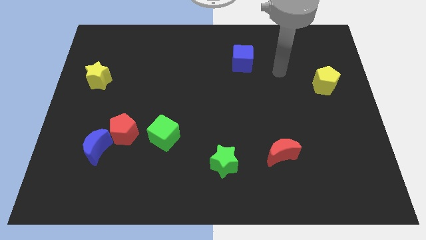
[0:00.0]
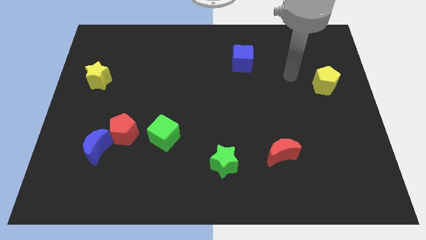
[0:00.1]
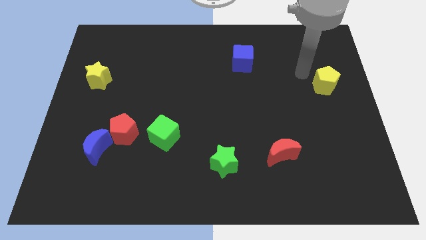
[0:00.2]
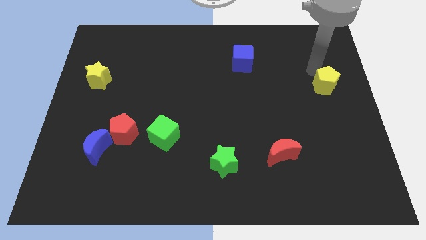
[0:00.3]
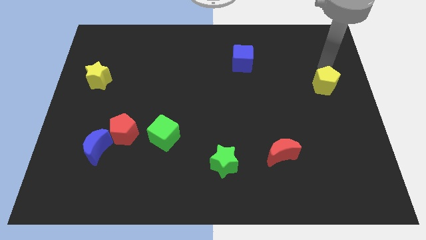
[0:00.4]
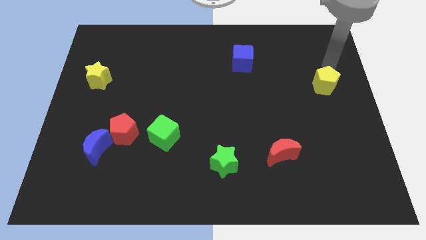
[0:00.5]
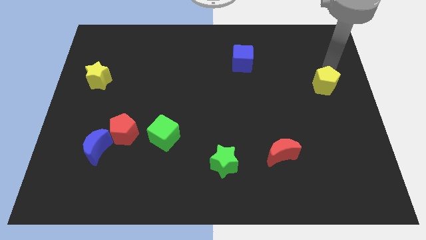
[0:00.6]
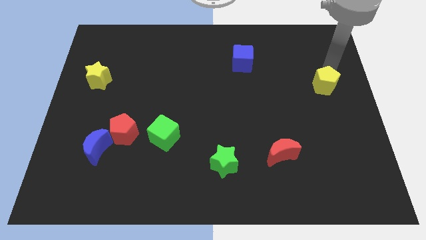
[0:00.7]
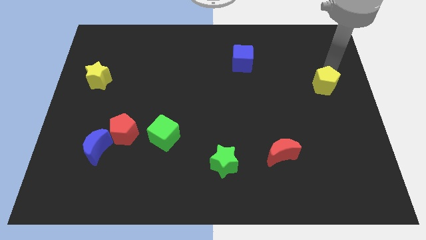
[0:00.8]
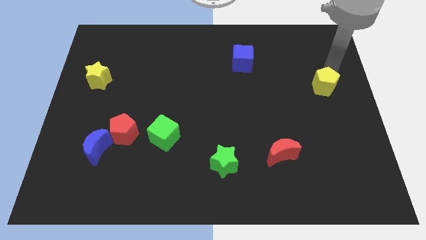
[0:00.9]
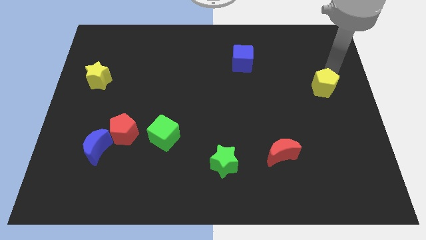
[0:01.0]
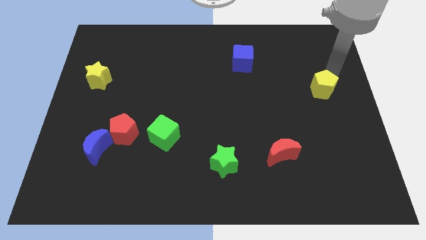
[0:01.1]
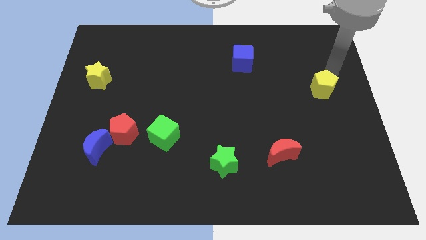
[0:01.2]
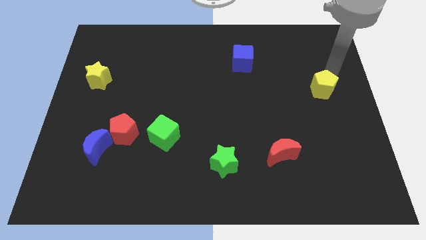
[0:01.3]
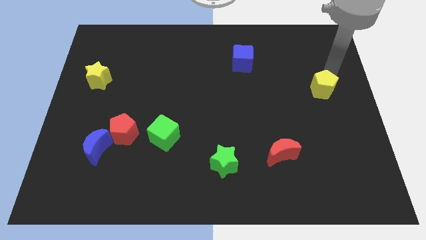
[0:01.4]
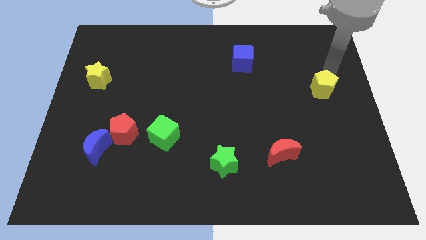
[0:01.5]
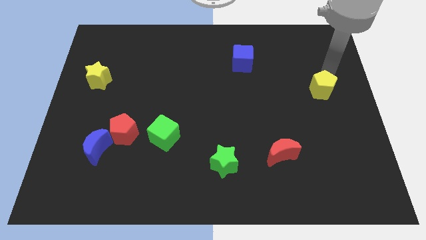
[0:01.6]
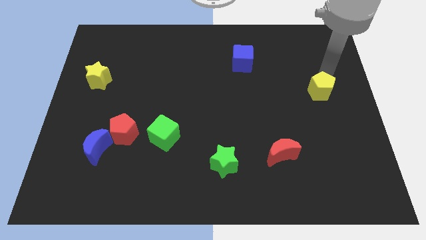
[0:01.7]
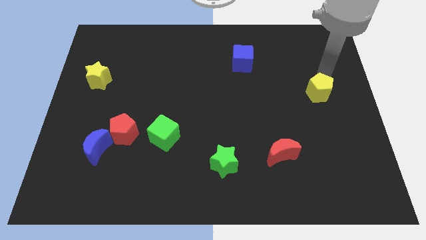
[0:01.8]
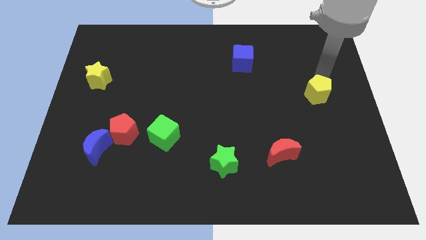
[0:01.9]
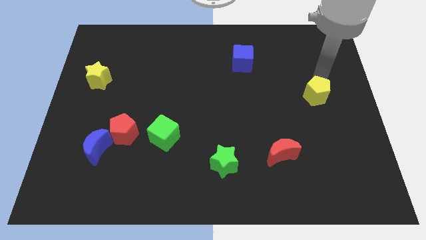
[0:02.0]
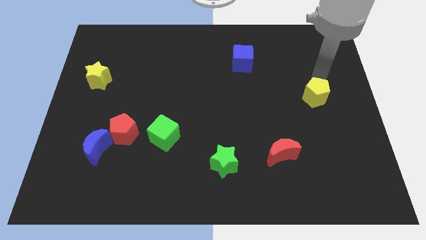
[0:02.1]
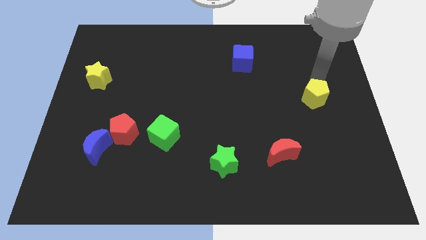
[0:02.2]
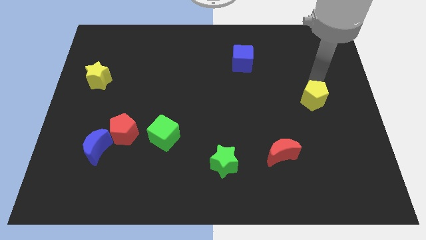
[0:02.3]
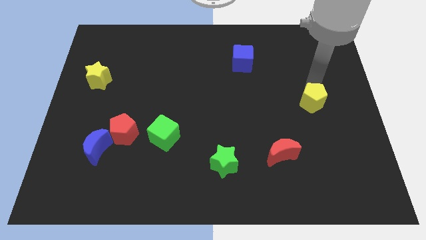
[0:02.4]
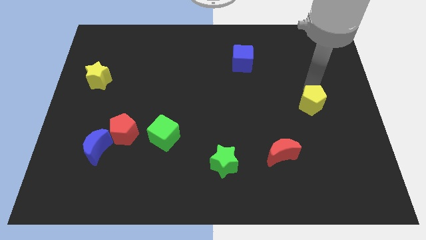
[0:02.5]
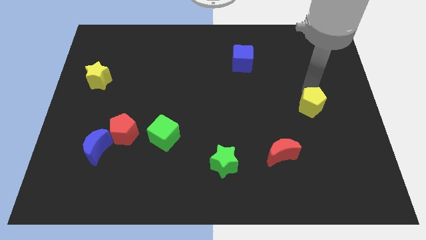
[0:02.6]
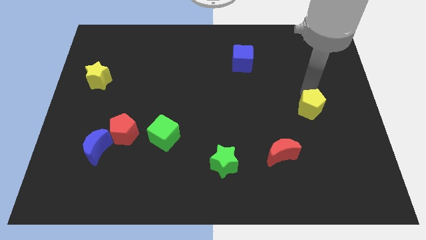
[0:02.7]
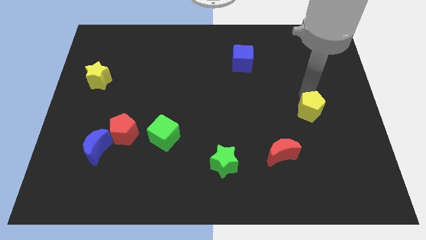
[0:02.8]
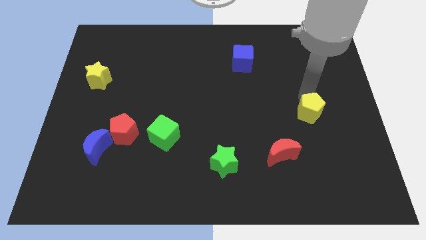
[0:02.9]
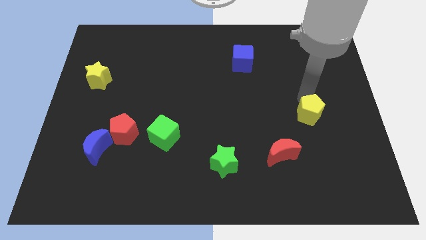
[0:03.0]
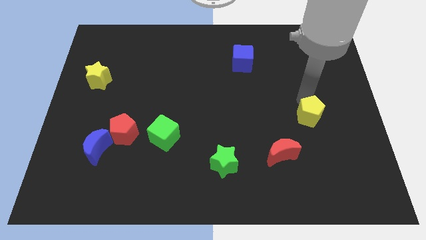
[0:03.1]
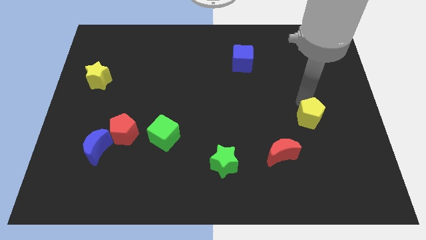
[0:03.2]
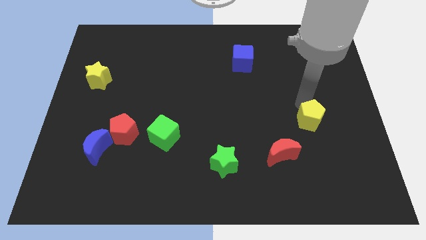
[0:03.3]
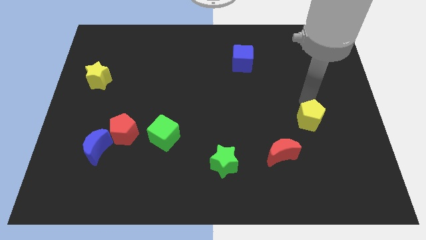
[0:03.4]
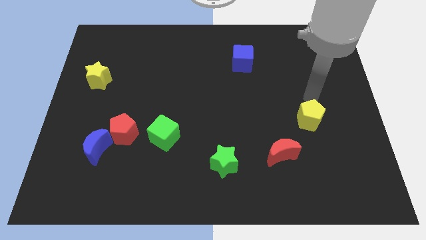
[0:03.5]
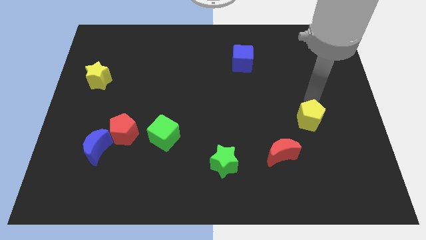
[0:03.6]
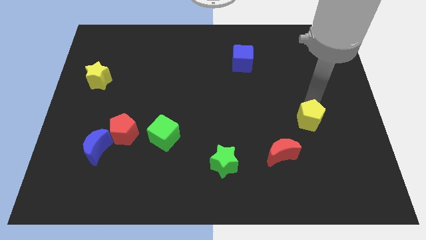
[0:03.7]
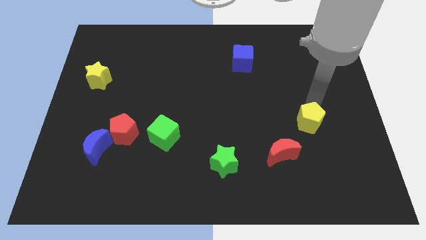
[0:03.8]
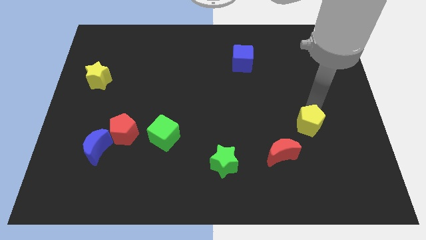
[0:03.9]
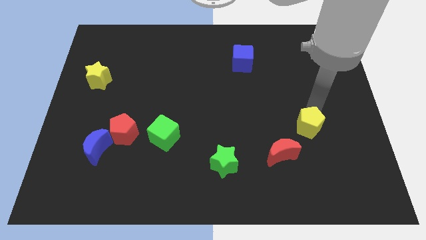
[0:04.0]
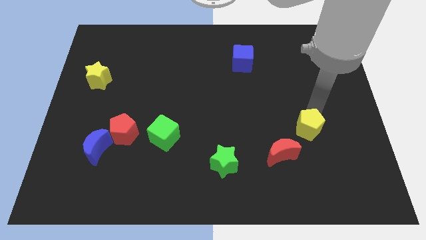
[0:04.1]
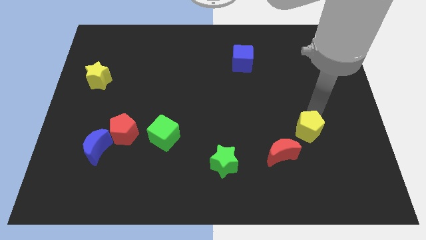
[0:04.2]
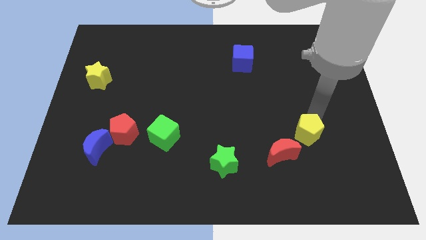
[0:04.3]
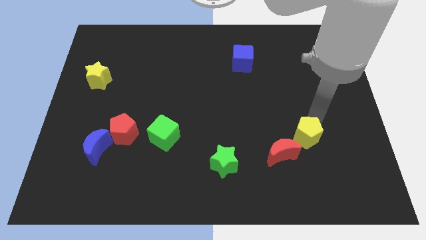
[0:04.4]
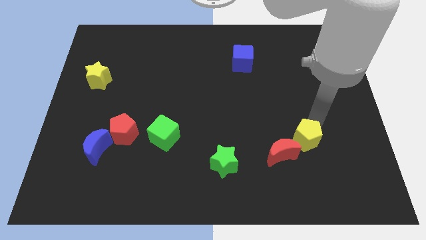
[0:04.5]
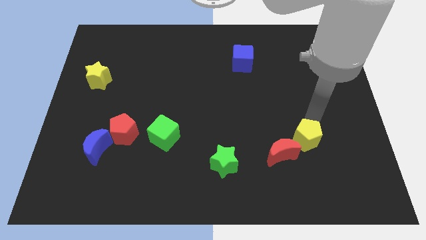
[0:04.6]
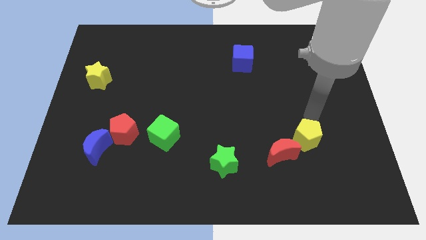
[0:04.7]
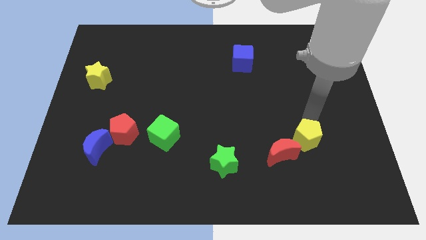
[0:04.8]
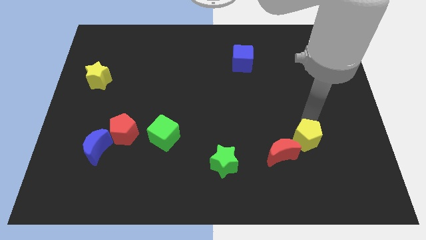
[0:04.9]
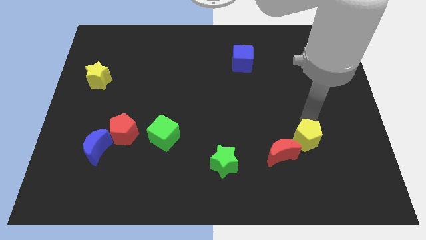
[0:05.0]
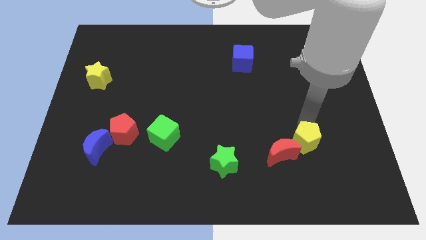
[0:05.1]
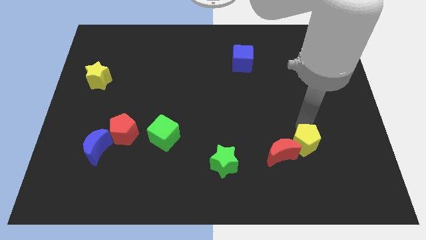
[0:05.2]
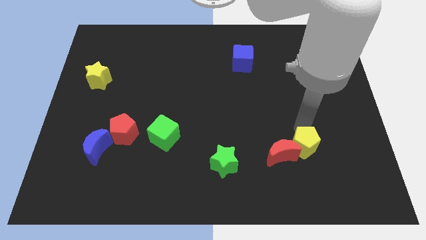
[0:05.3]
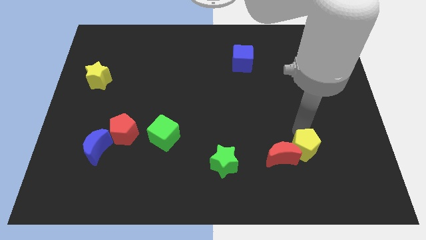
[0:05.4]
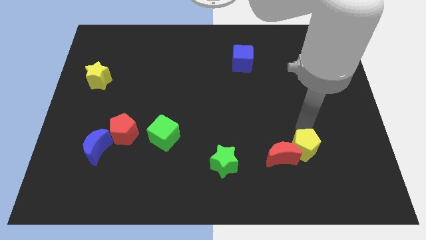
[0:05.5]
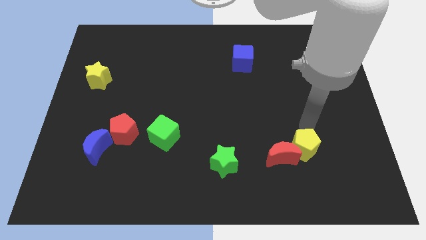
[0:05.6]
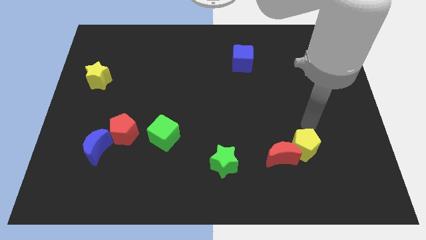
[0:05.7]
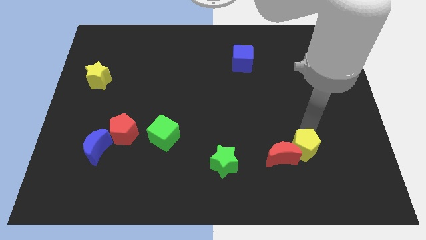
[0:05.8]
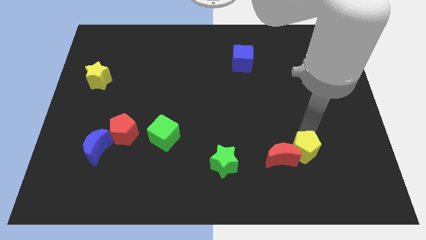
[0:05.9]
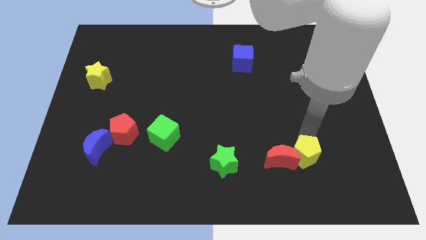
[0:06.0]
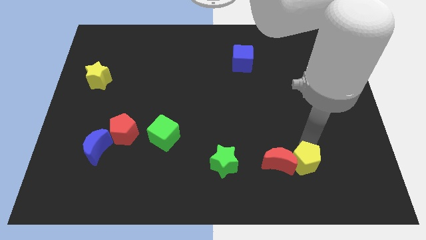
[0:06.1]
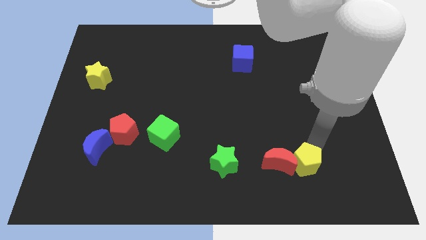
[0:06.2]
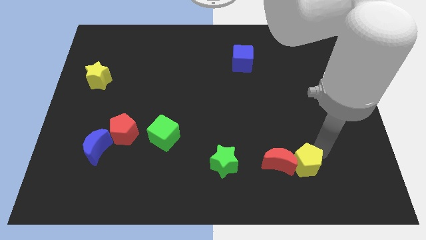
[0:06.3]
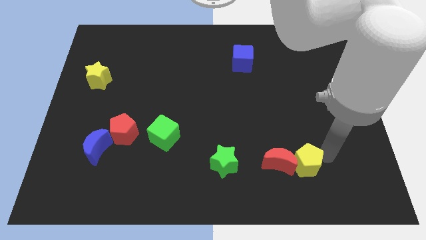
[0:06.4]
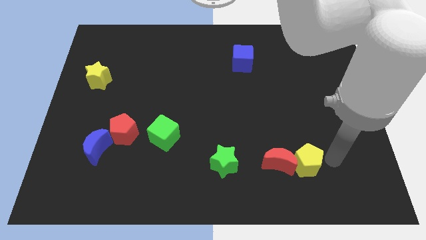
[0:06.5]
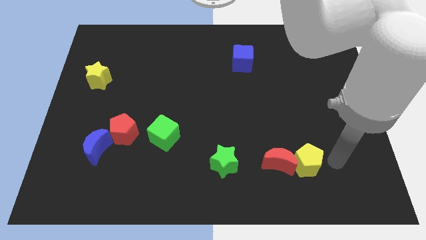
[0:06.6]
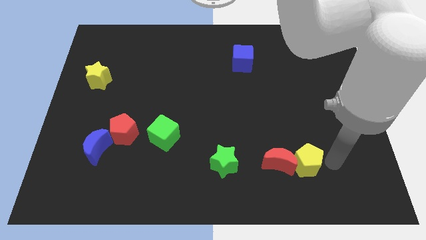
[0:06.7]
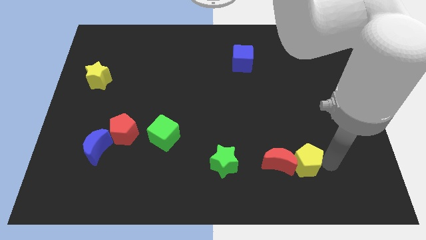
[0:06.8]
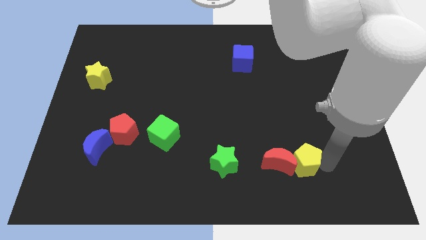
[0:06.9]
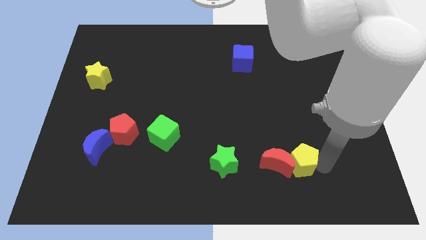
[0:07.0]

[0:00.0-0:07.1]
push the yellow pentagon just right of the green star

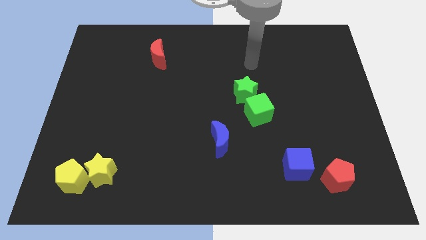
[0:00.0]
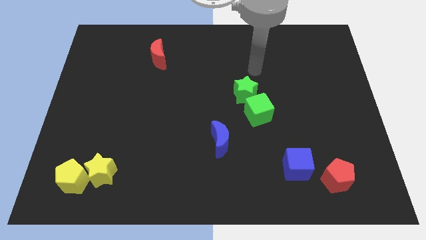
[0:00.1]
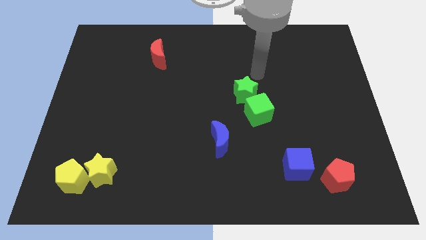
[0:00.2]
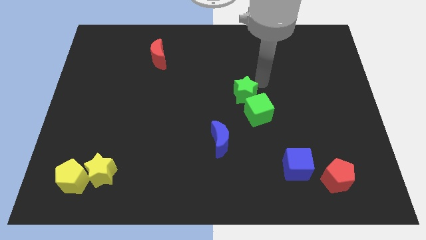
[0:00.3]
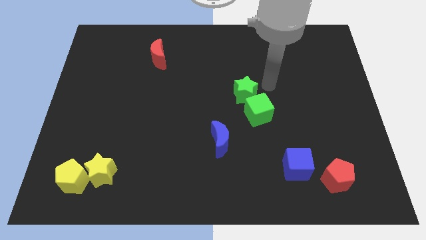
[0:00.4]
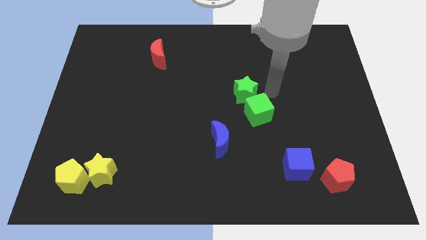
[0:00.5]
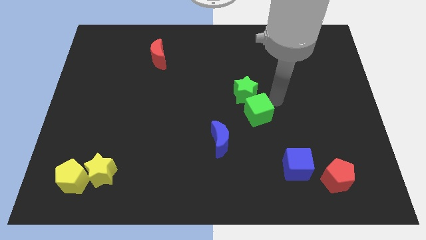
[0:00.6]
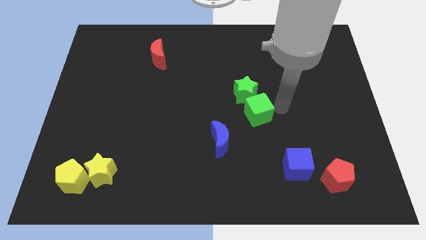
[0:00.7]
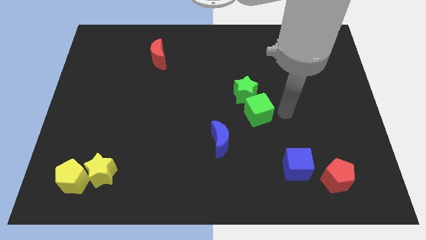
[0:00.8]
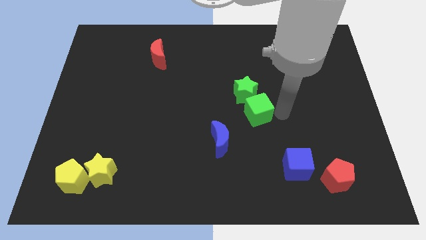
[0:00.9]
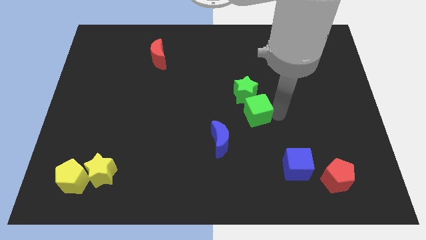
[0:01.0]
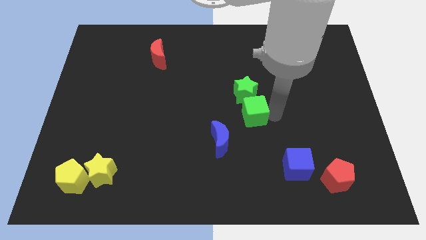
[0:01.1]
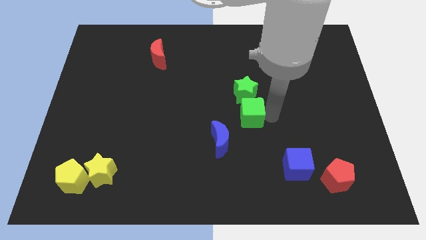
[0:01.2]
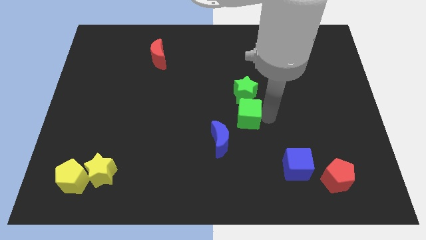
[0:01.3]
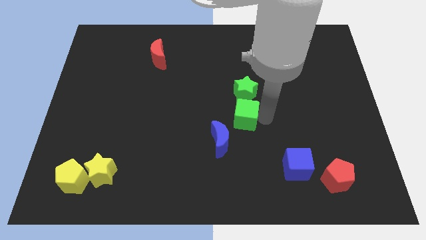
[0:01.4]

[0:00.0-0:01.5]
put the green cube to the bottom left of the green star
